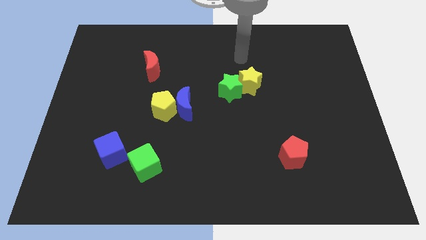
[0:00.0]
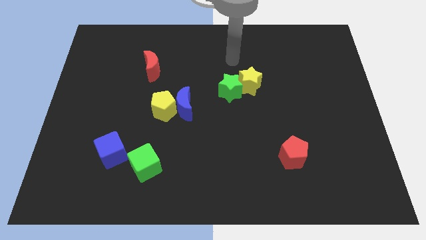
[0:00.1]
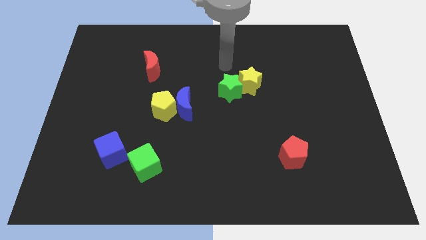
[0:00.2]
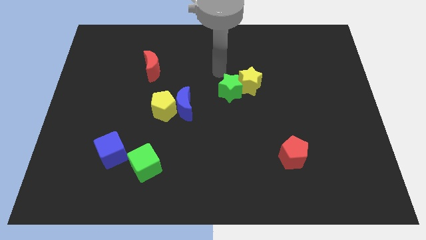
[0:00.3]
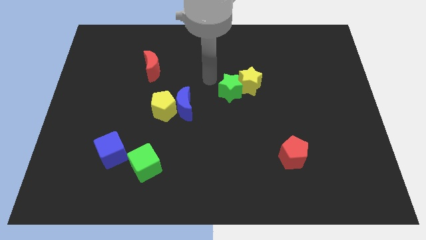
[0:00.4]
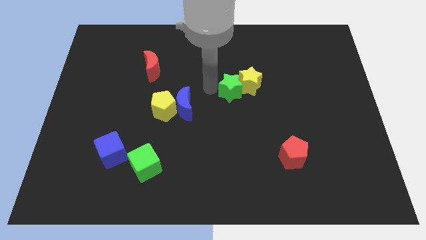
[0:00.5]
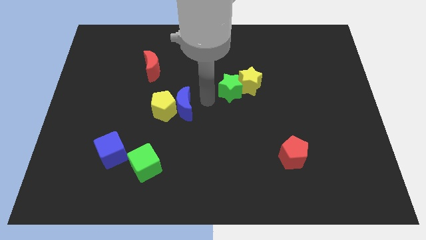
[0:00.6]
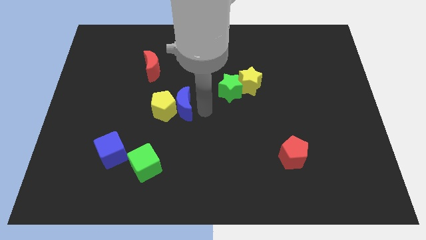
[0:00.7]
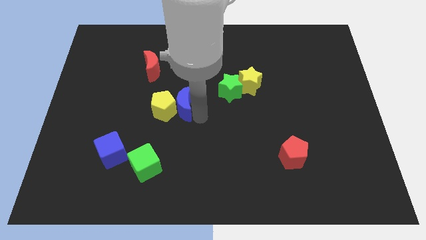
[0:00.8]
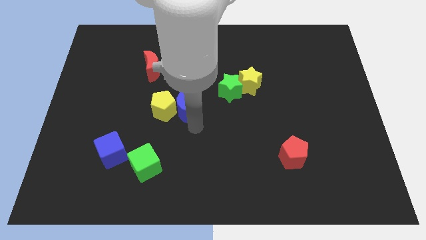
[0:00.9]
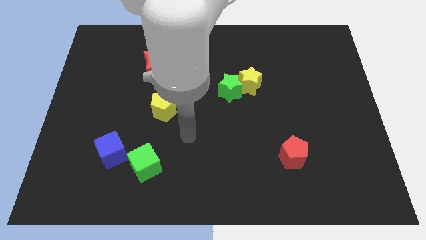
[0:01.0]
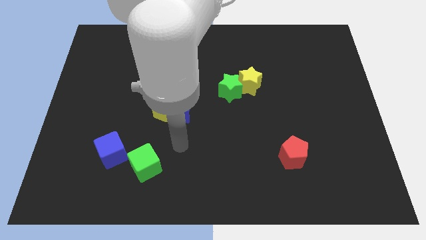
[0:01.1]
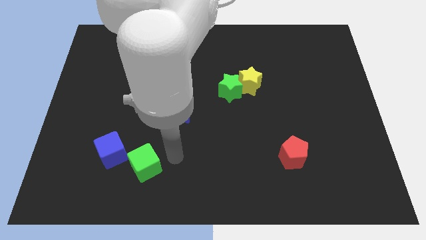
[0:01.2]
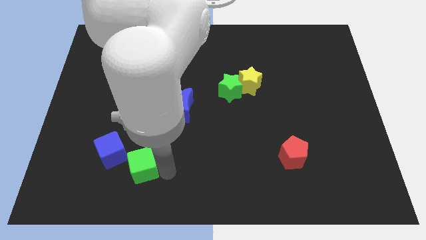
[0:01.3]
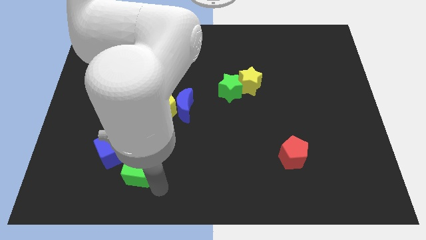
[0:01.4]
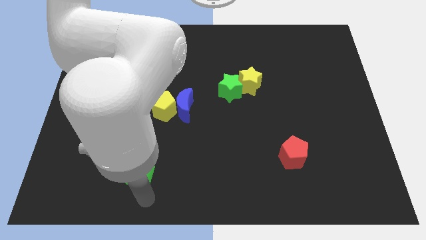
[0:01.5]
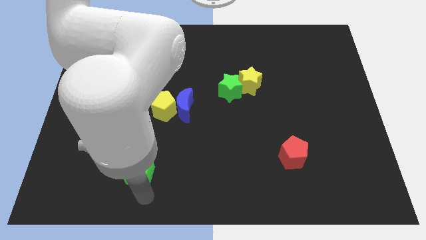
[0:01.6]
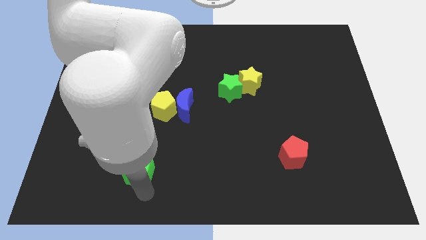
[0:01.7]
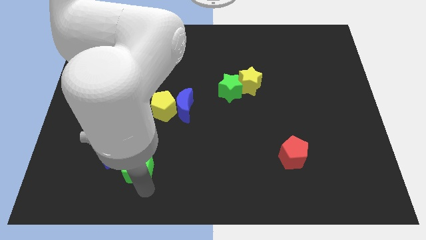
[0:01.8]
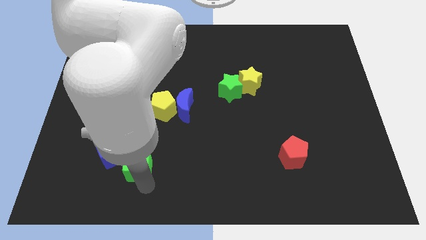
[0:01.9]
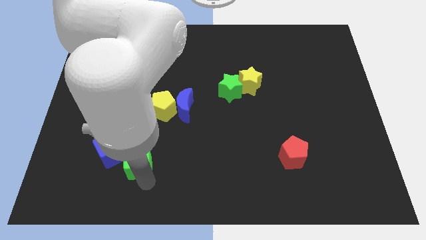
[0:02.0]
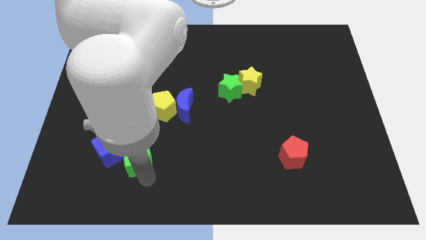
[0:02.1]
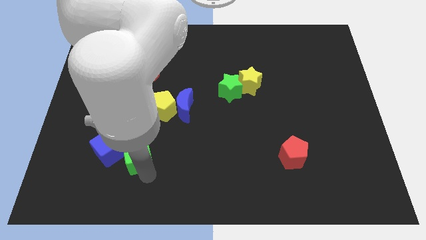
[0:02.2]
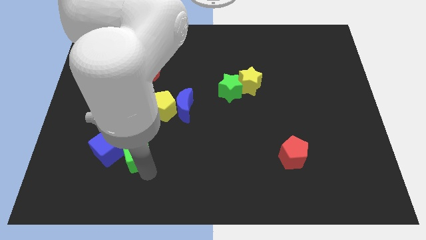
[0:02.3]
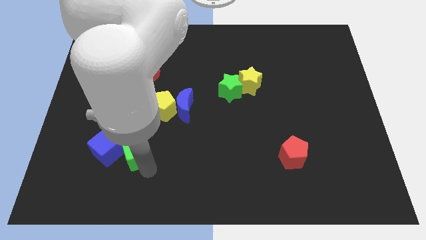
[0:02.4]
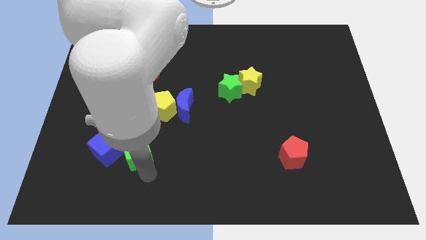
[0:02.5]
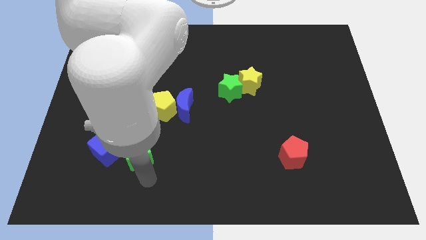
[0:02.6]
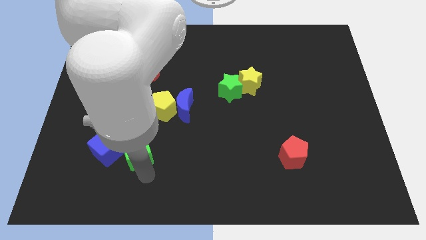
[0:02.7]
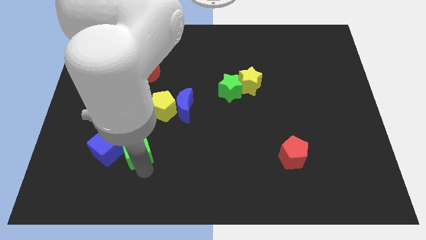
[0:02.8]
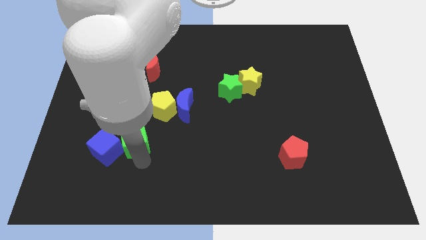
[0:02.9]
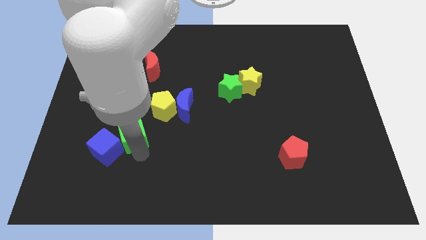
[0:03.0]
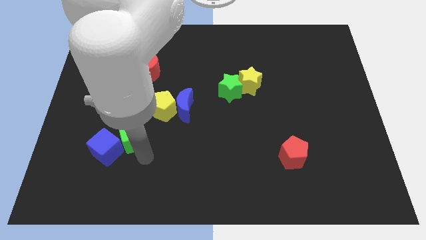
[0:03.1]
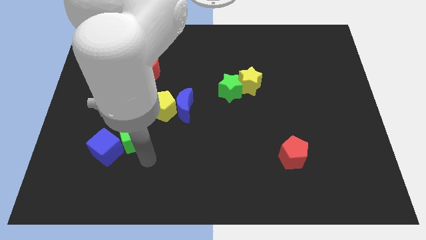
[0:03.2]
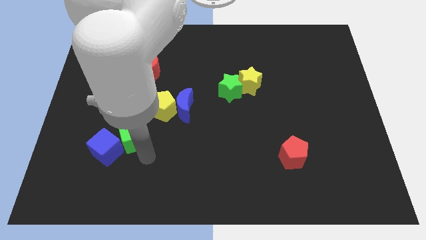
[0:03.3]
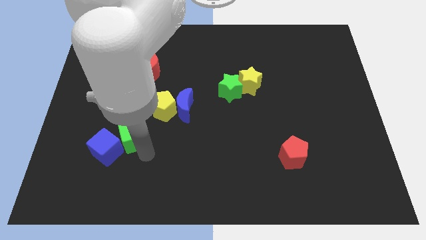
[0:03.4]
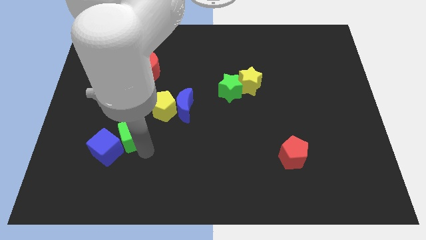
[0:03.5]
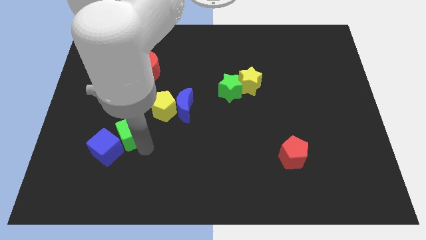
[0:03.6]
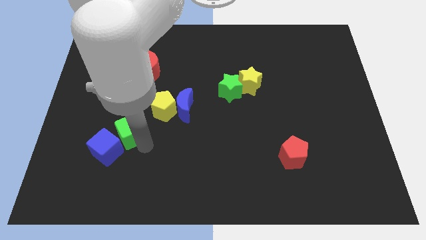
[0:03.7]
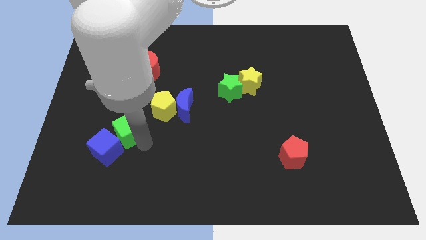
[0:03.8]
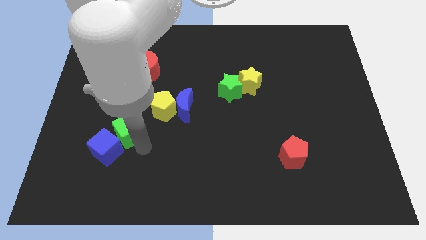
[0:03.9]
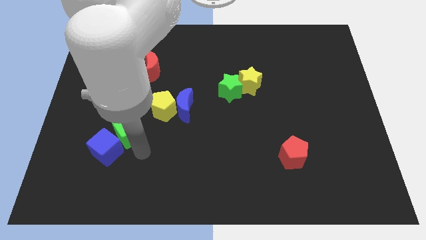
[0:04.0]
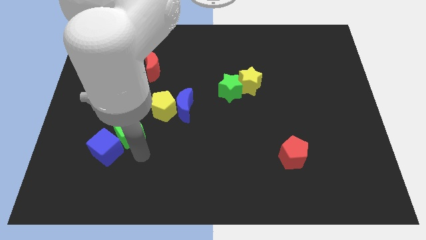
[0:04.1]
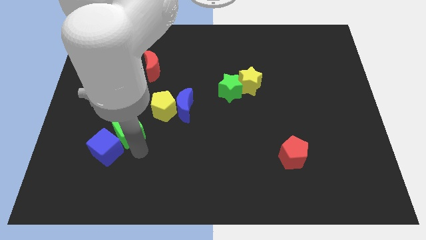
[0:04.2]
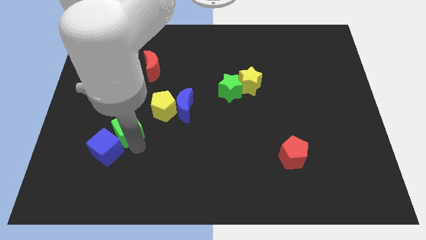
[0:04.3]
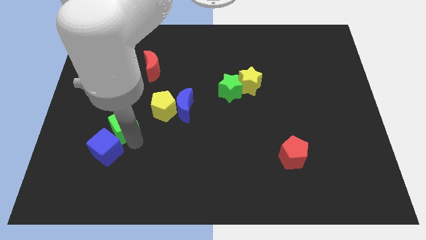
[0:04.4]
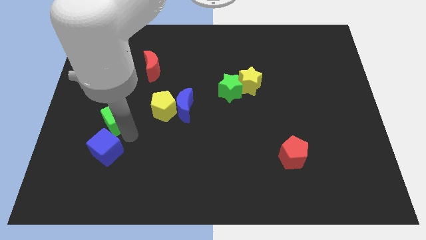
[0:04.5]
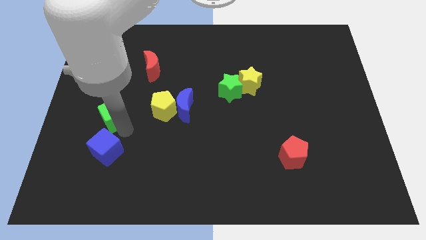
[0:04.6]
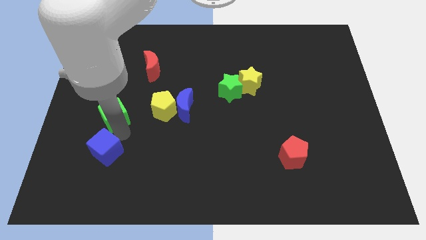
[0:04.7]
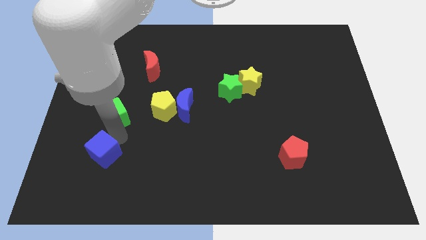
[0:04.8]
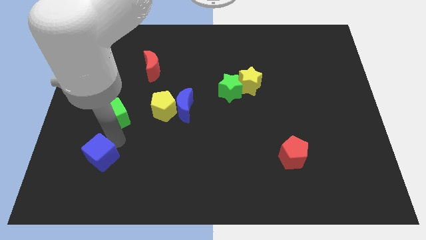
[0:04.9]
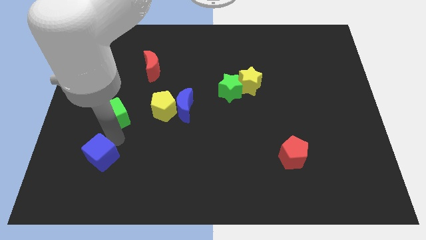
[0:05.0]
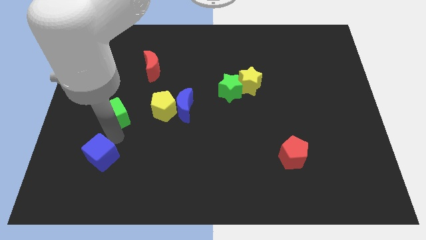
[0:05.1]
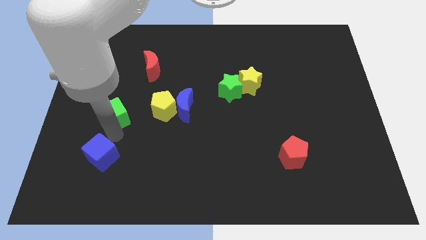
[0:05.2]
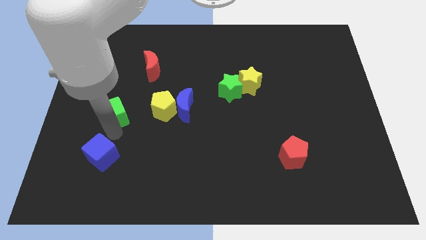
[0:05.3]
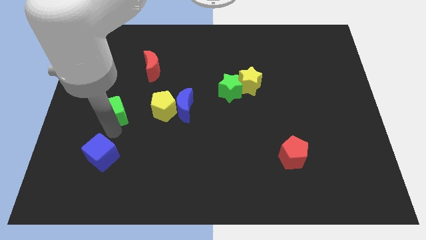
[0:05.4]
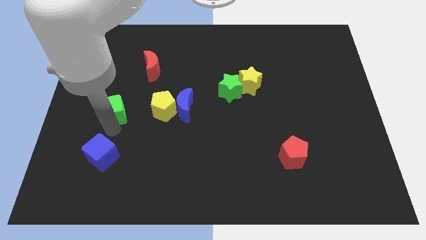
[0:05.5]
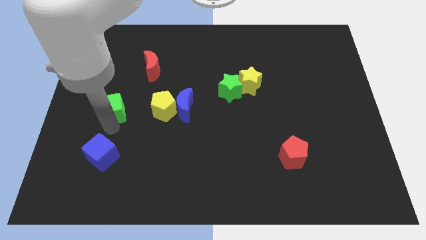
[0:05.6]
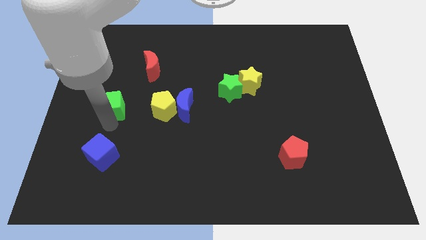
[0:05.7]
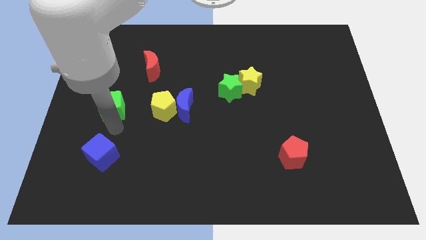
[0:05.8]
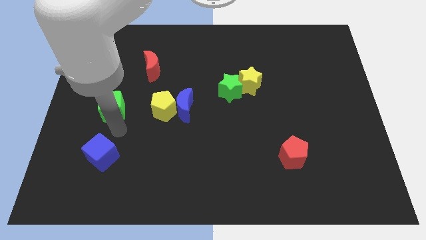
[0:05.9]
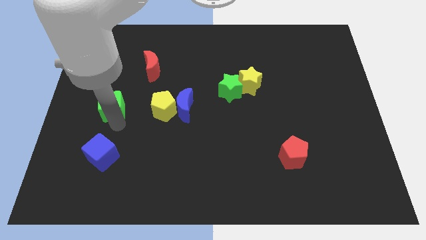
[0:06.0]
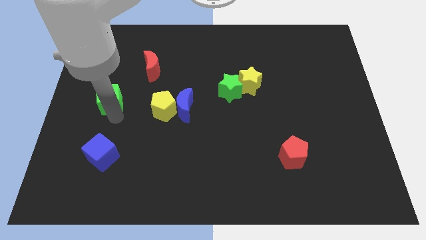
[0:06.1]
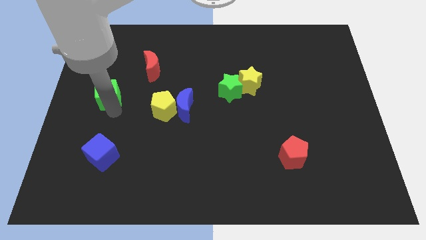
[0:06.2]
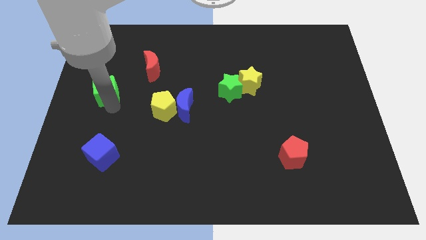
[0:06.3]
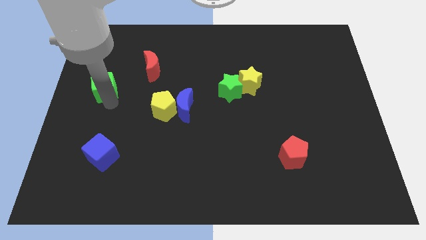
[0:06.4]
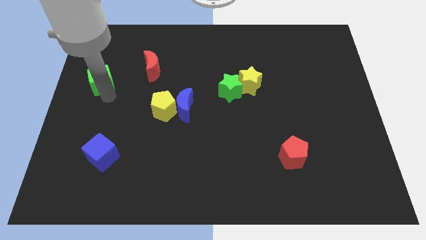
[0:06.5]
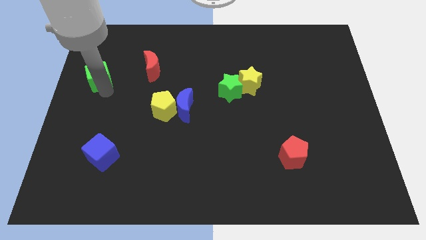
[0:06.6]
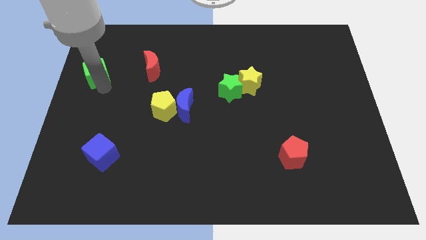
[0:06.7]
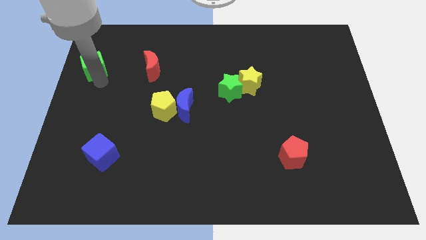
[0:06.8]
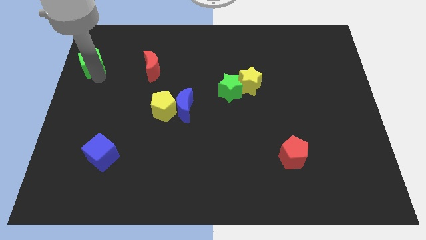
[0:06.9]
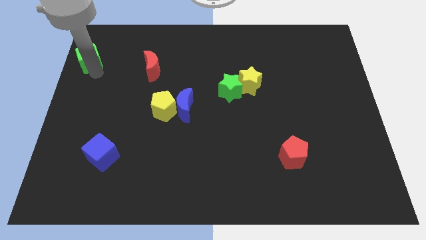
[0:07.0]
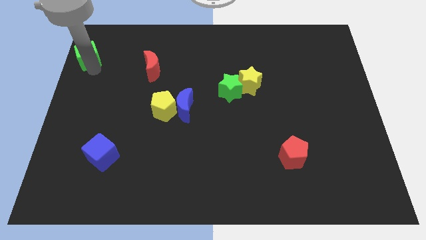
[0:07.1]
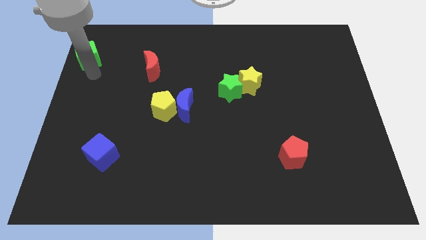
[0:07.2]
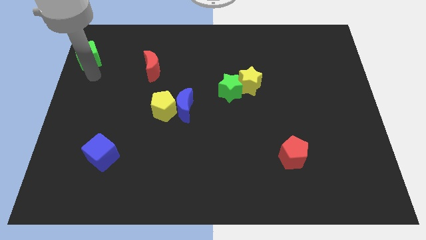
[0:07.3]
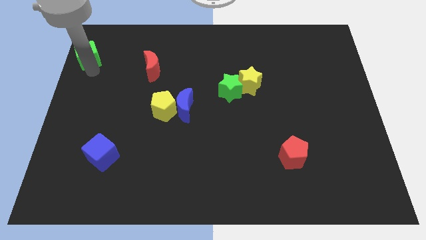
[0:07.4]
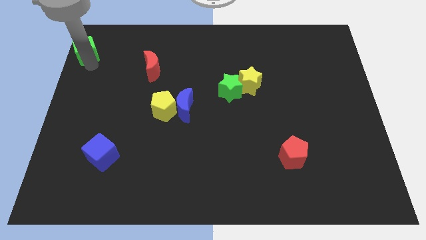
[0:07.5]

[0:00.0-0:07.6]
push the green cube to the upper left corner
